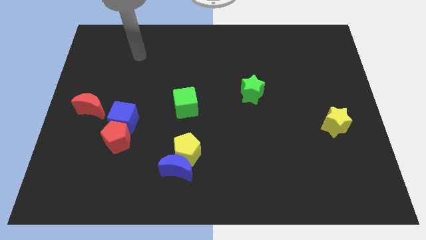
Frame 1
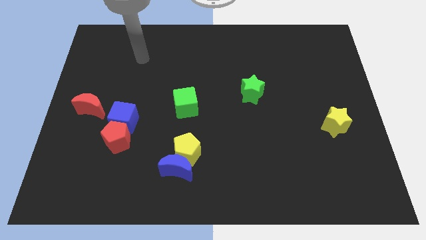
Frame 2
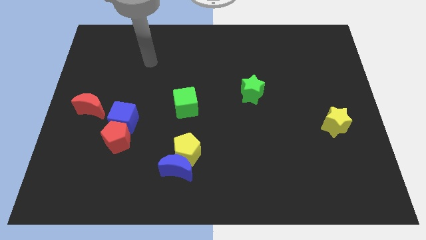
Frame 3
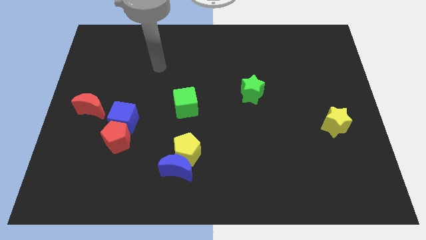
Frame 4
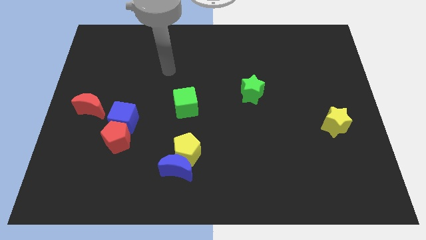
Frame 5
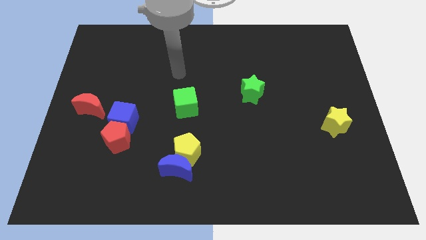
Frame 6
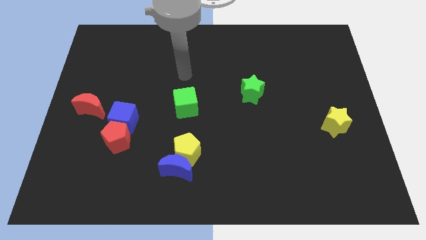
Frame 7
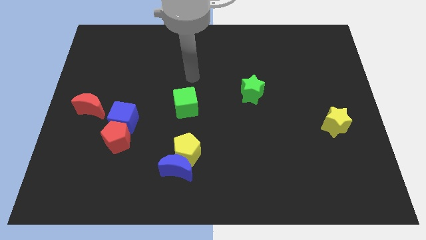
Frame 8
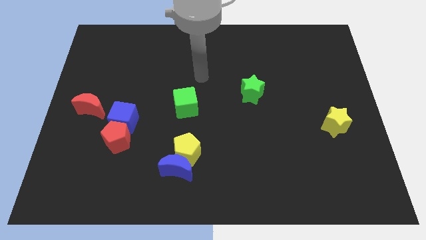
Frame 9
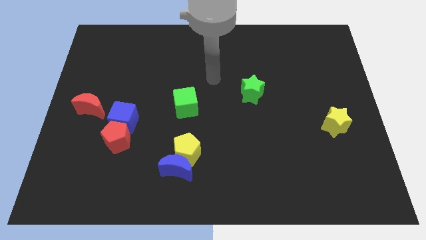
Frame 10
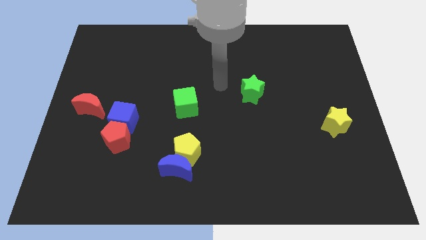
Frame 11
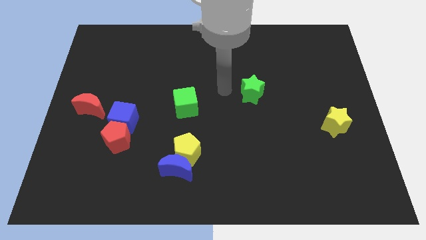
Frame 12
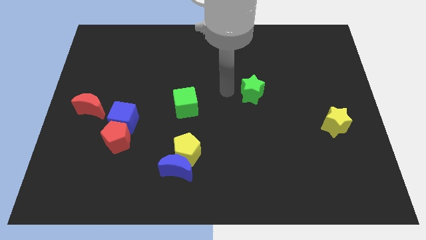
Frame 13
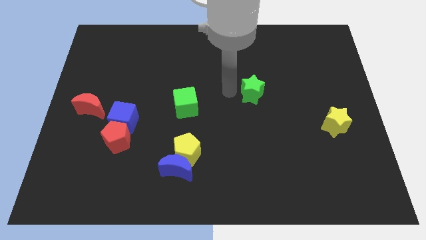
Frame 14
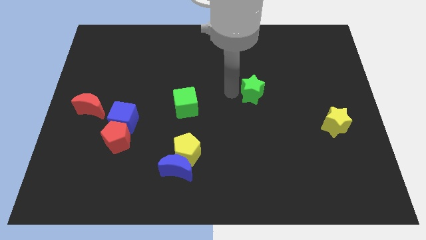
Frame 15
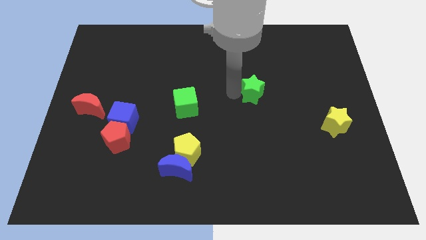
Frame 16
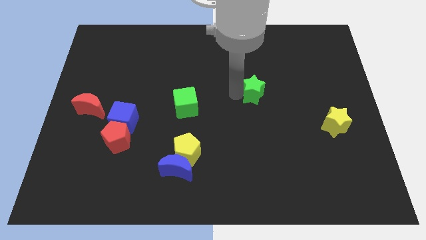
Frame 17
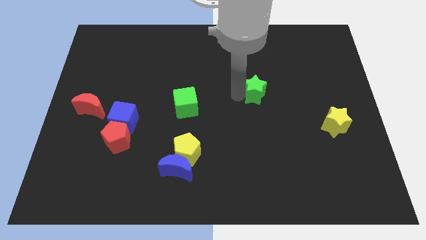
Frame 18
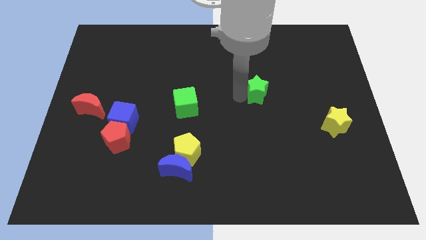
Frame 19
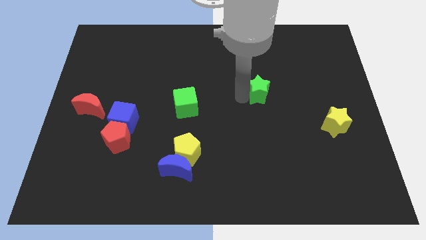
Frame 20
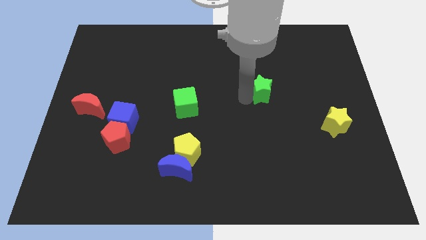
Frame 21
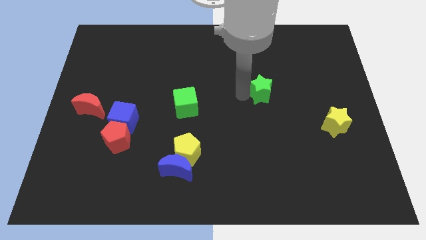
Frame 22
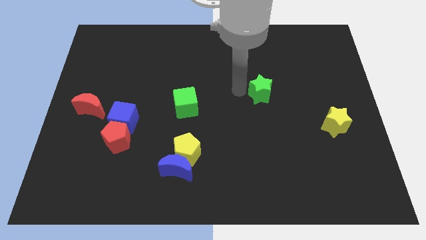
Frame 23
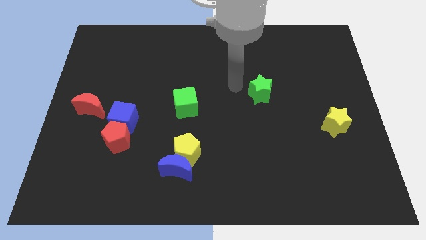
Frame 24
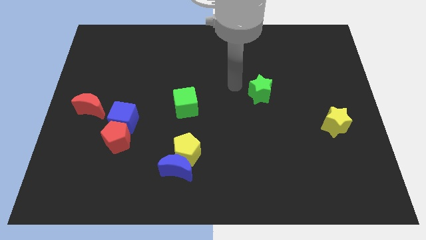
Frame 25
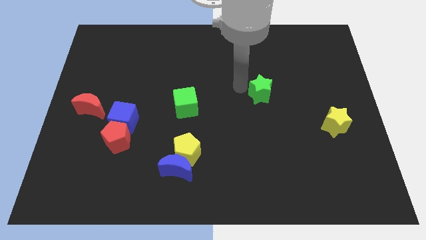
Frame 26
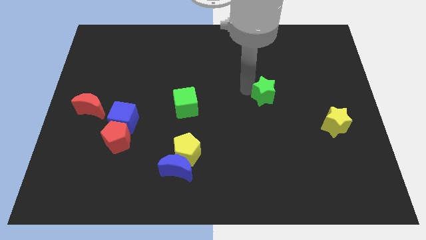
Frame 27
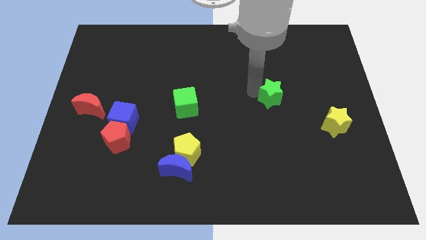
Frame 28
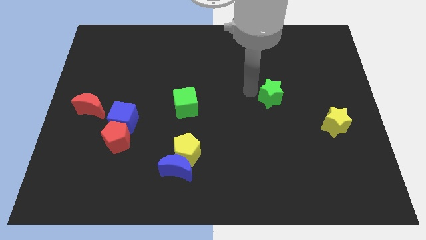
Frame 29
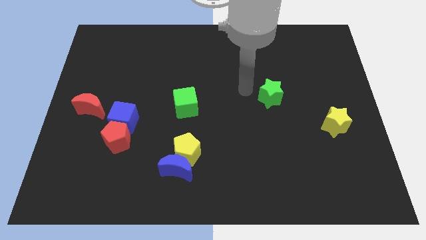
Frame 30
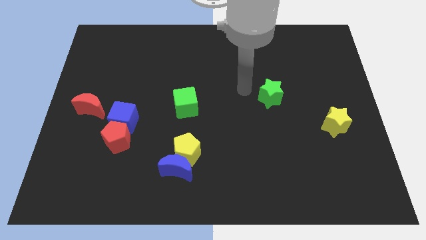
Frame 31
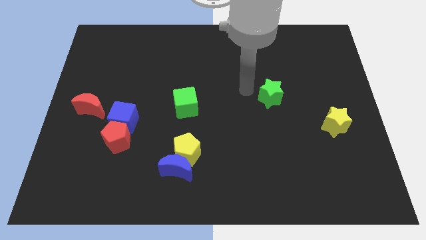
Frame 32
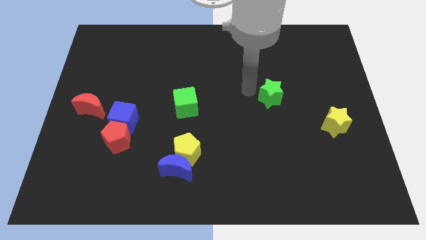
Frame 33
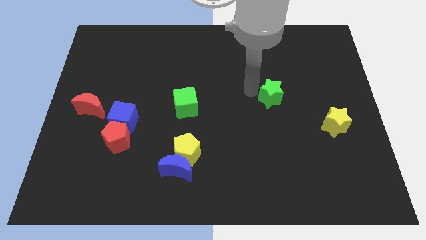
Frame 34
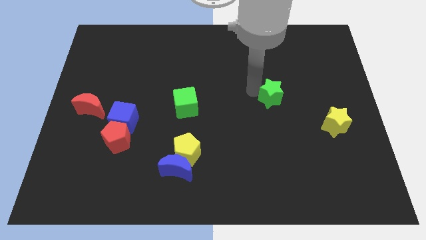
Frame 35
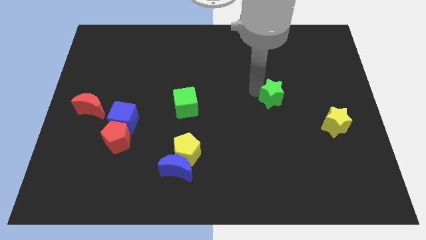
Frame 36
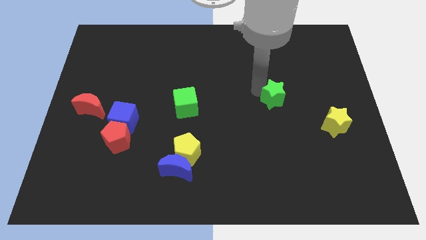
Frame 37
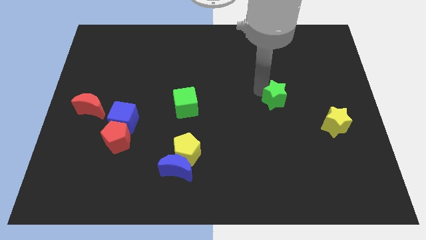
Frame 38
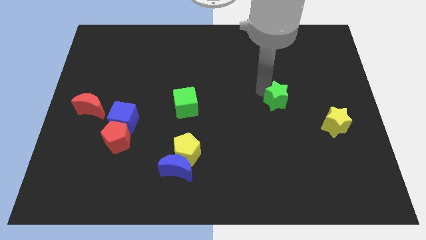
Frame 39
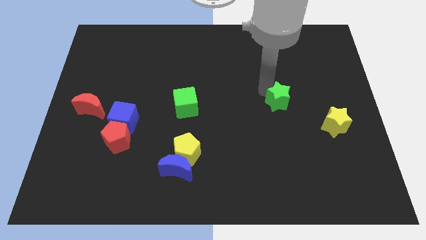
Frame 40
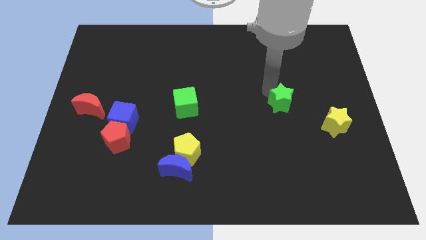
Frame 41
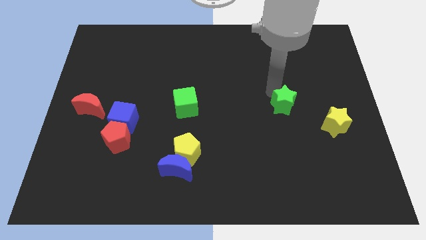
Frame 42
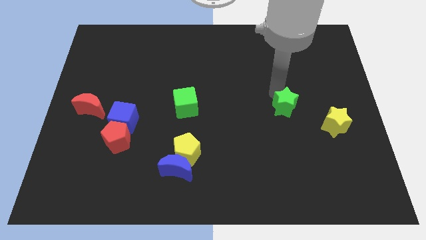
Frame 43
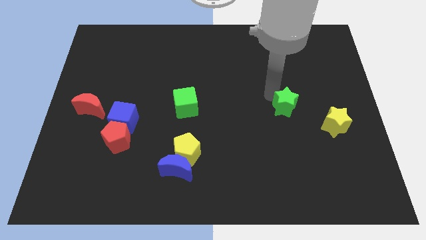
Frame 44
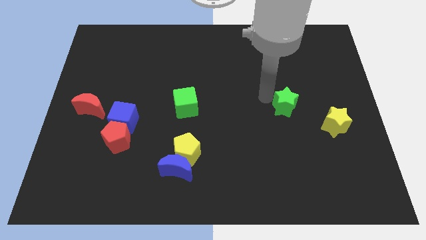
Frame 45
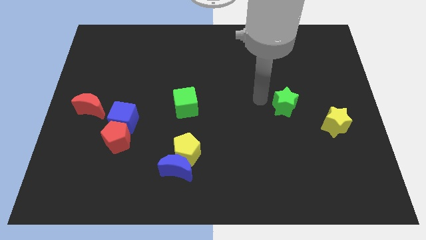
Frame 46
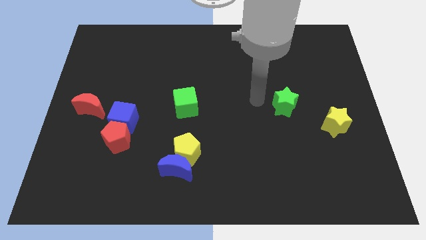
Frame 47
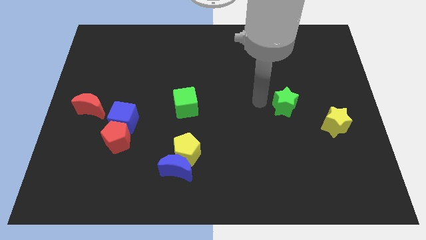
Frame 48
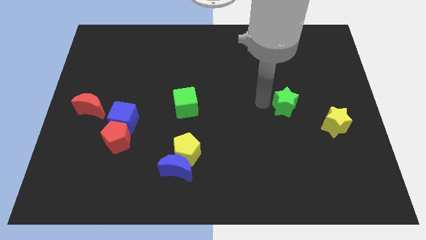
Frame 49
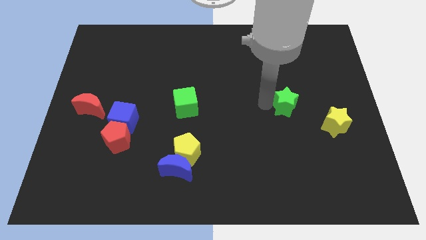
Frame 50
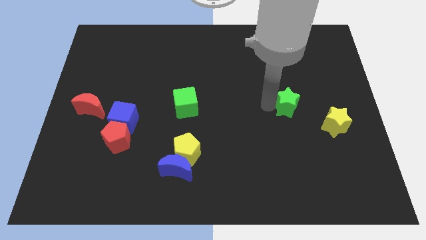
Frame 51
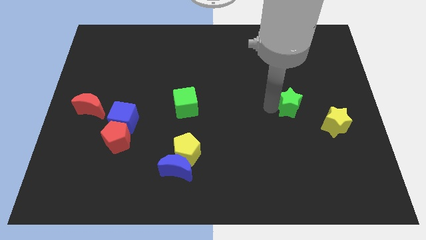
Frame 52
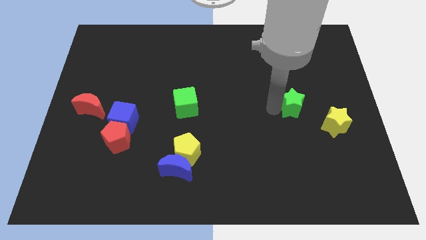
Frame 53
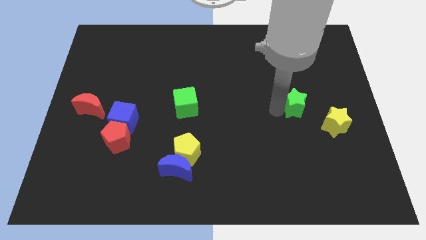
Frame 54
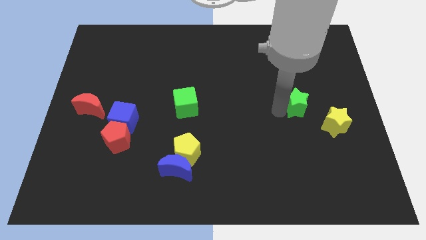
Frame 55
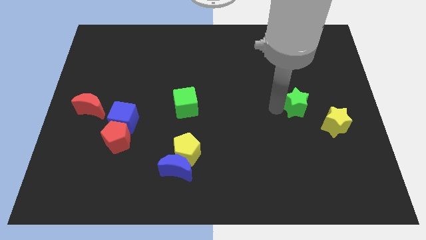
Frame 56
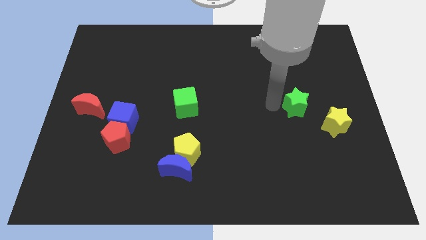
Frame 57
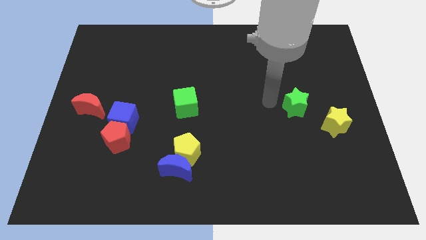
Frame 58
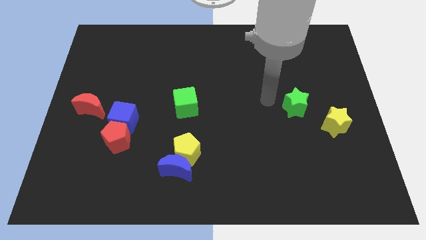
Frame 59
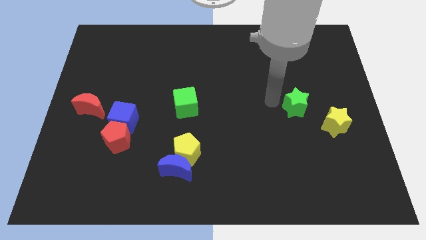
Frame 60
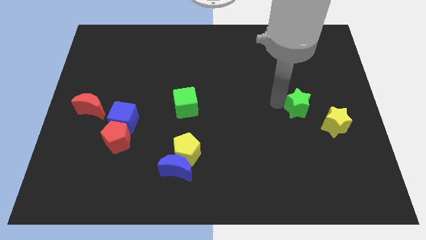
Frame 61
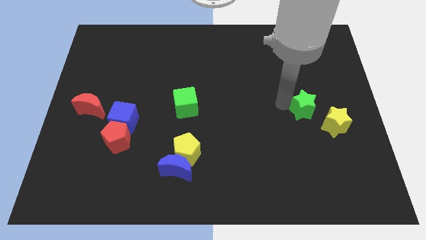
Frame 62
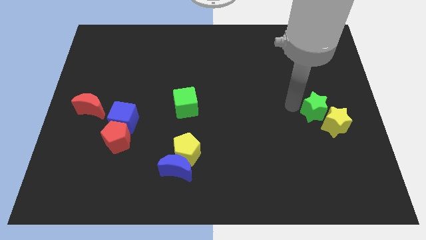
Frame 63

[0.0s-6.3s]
push the green star towards the yellow star

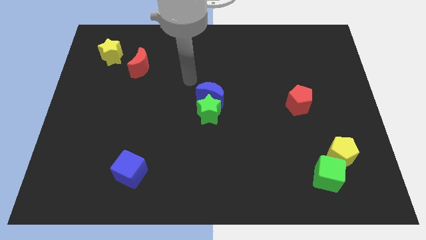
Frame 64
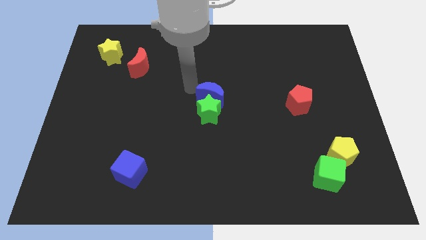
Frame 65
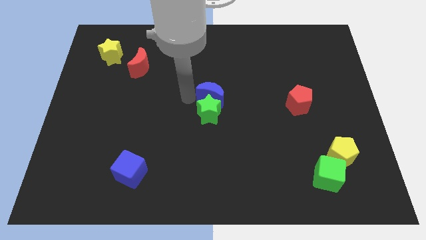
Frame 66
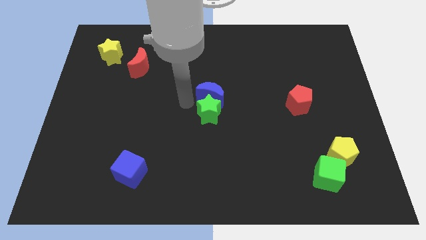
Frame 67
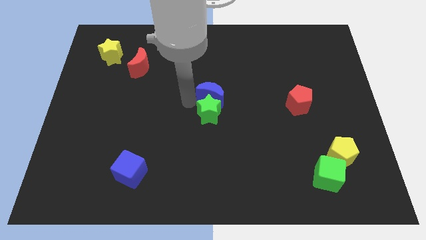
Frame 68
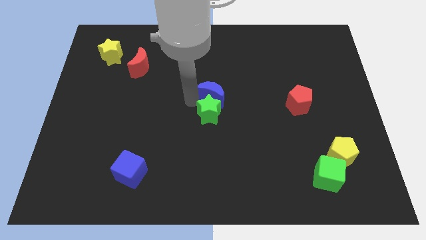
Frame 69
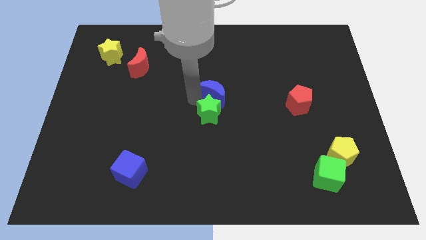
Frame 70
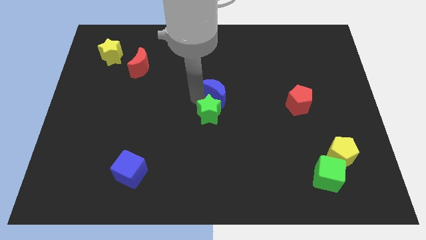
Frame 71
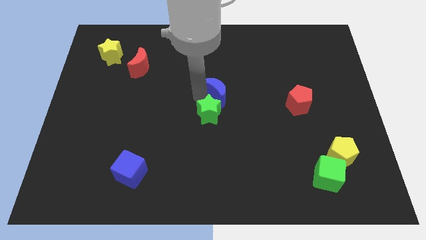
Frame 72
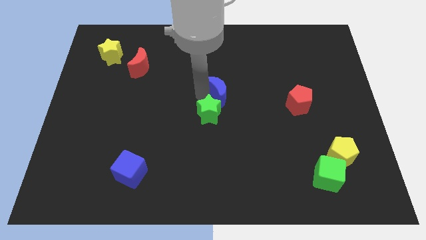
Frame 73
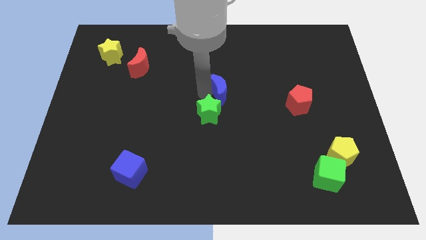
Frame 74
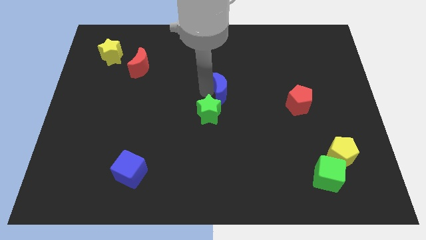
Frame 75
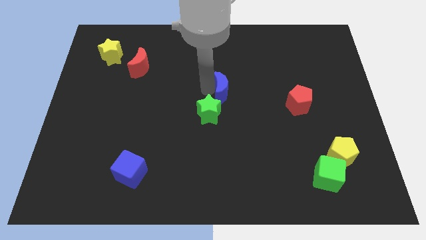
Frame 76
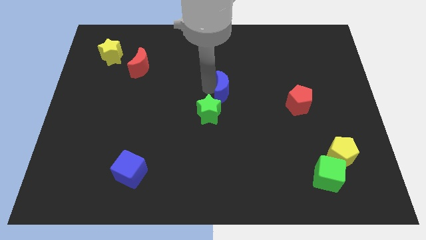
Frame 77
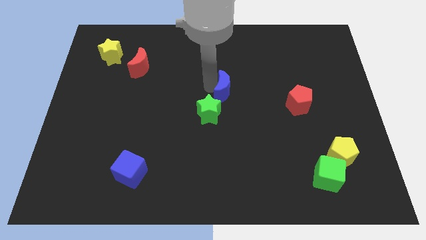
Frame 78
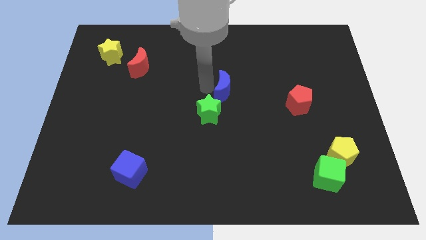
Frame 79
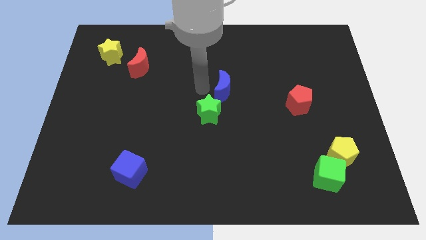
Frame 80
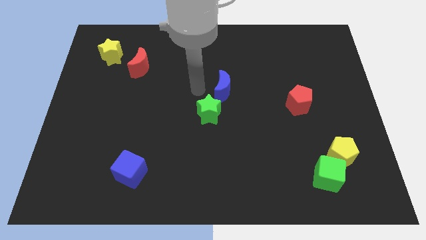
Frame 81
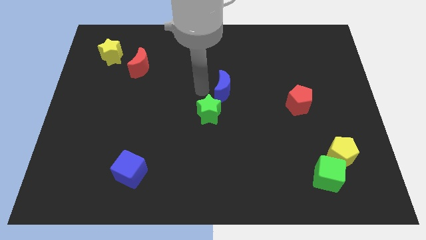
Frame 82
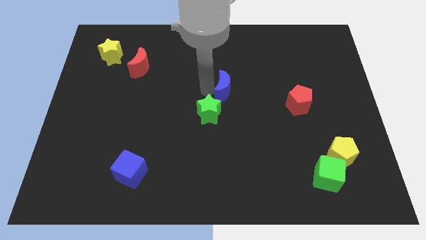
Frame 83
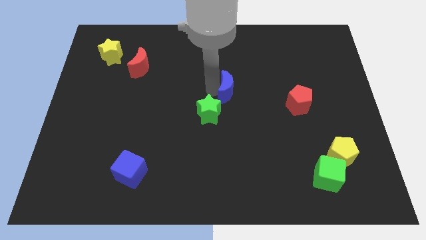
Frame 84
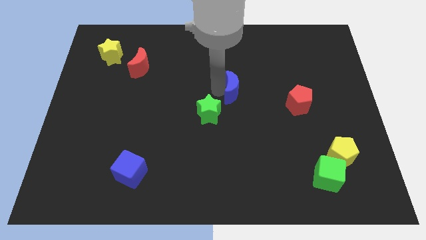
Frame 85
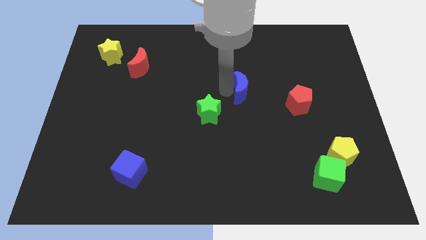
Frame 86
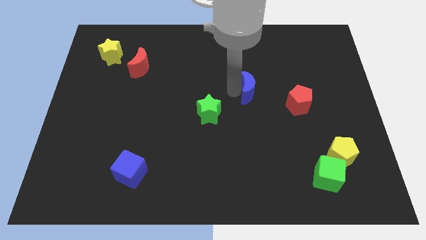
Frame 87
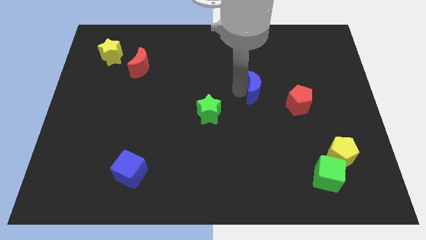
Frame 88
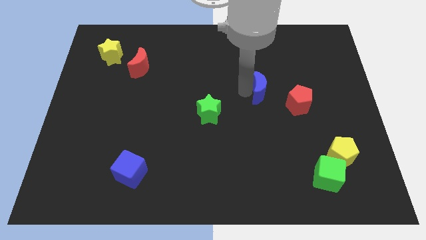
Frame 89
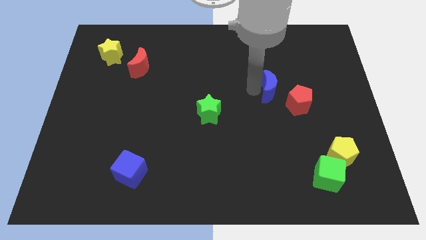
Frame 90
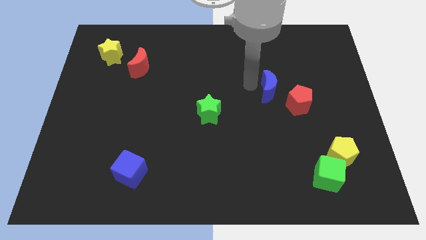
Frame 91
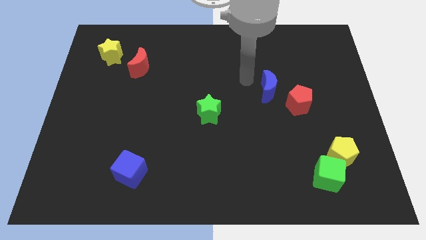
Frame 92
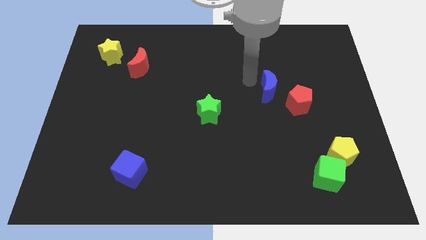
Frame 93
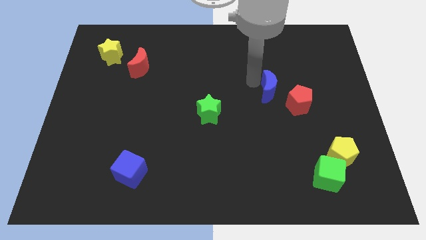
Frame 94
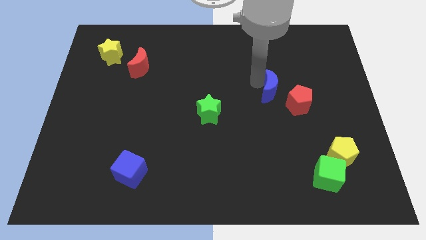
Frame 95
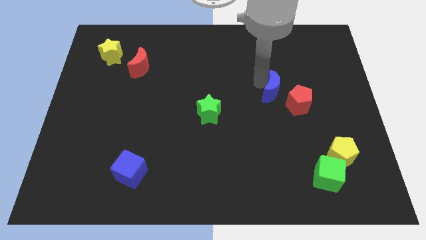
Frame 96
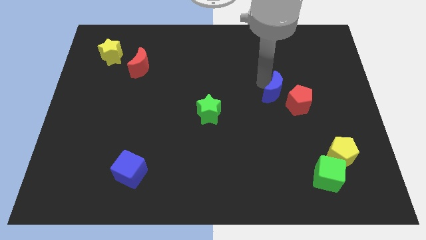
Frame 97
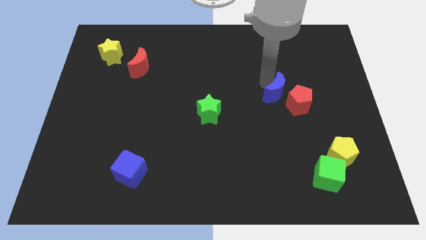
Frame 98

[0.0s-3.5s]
put the blue moon to the red pentagon
